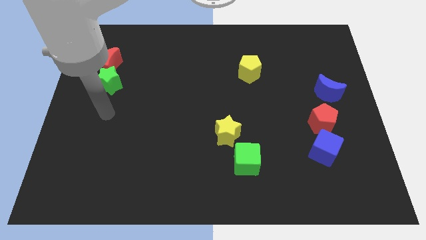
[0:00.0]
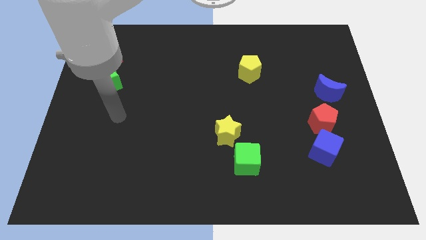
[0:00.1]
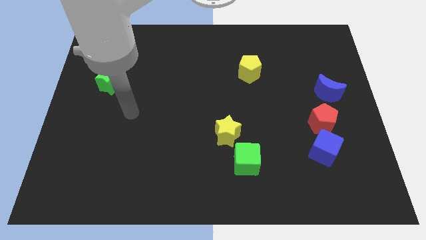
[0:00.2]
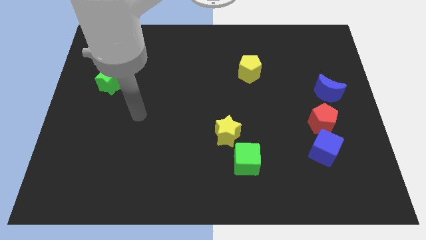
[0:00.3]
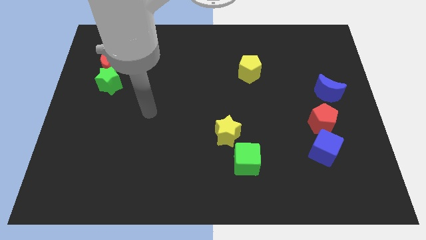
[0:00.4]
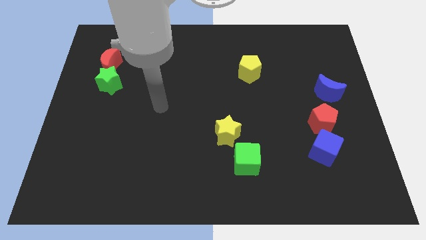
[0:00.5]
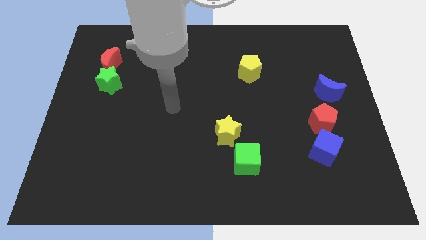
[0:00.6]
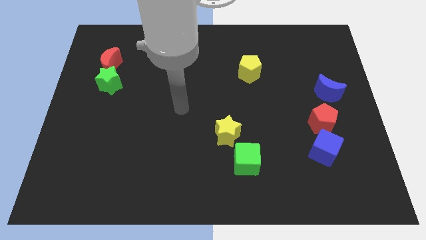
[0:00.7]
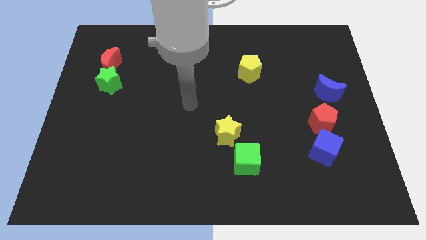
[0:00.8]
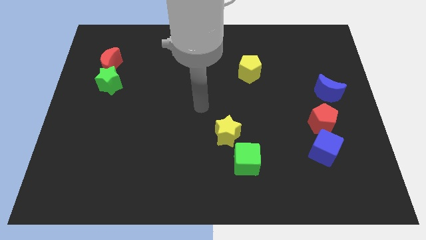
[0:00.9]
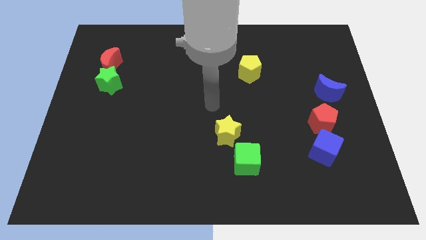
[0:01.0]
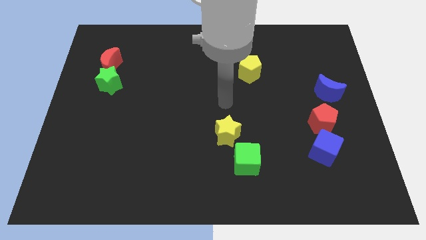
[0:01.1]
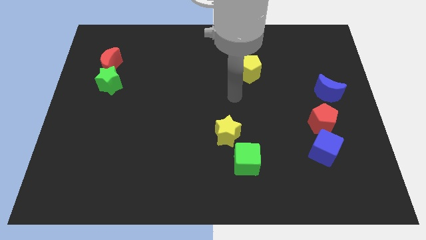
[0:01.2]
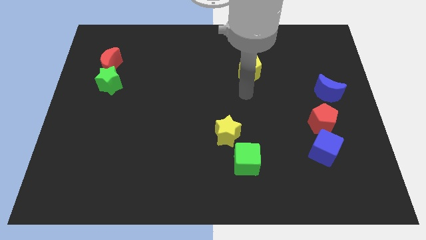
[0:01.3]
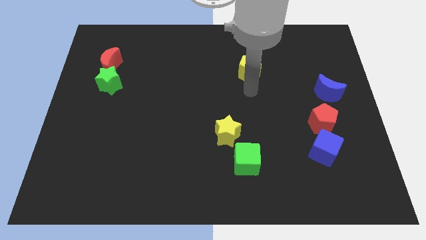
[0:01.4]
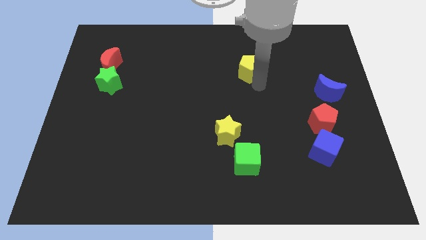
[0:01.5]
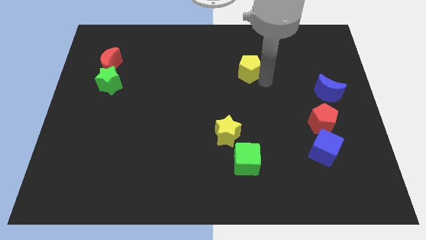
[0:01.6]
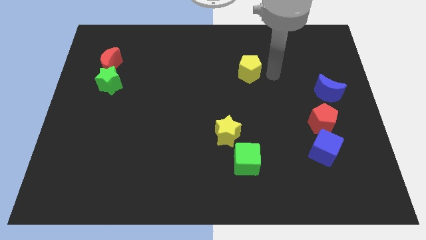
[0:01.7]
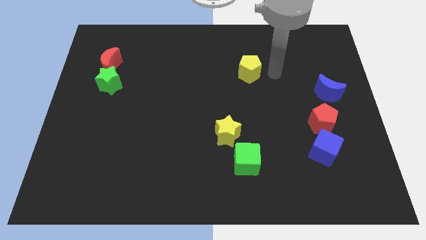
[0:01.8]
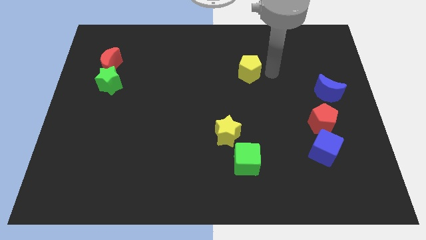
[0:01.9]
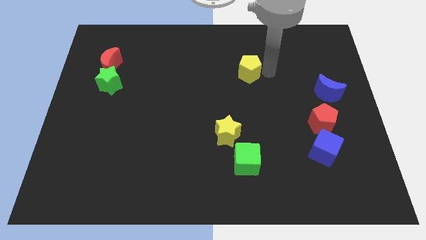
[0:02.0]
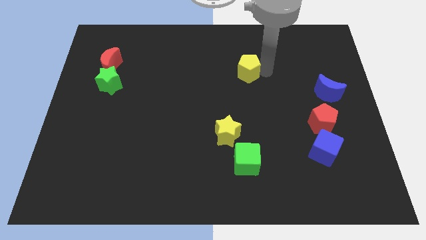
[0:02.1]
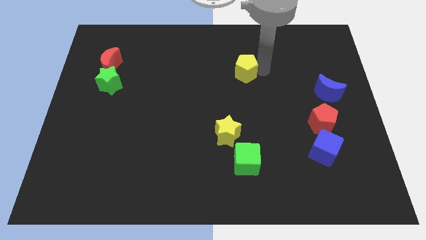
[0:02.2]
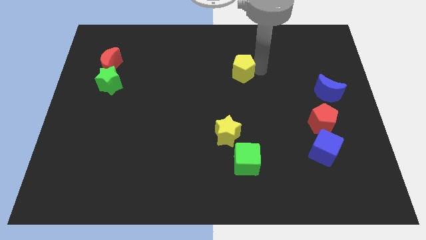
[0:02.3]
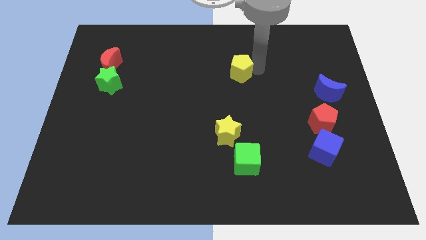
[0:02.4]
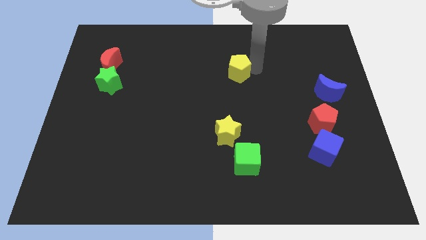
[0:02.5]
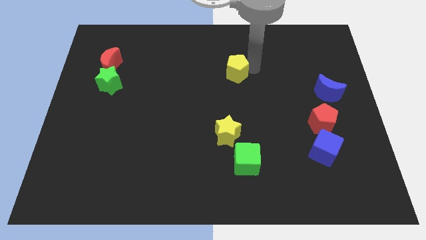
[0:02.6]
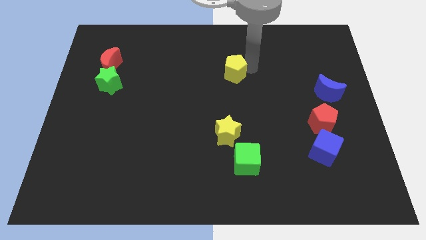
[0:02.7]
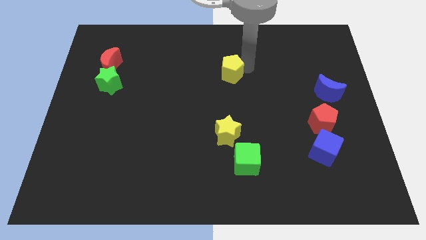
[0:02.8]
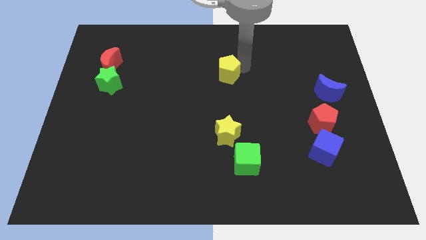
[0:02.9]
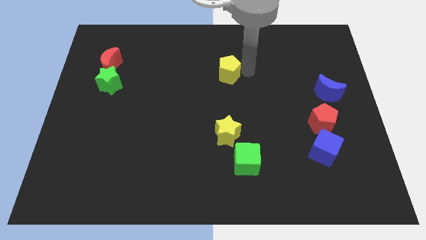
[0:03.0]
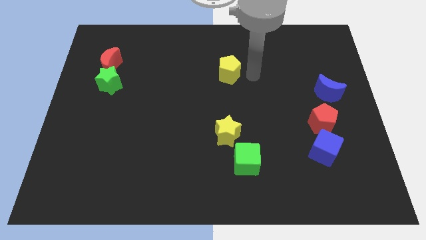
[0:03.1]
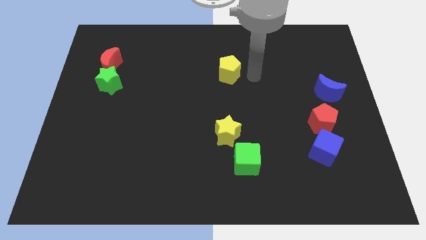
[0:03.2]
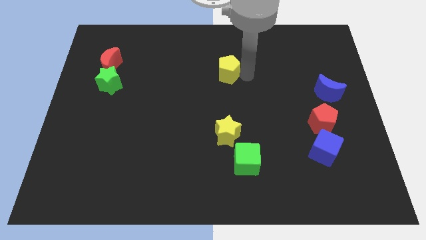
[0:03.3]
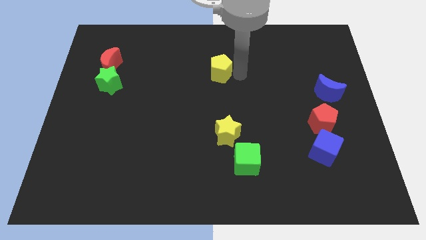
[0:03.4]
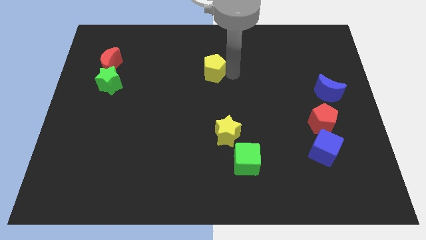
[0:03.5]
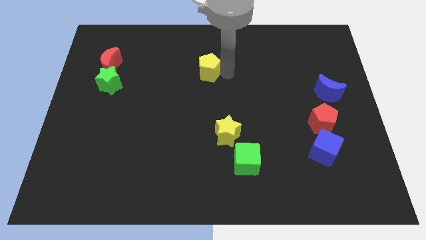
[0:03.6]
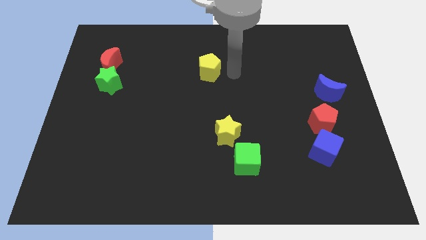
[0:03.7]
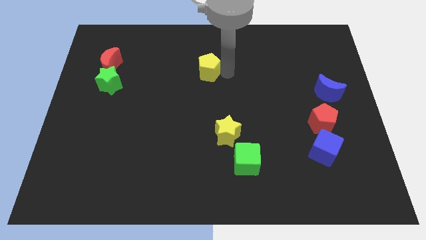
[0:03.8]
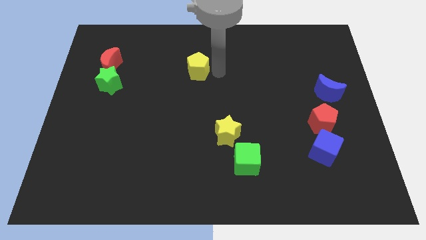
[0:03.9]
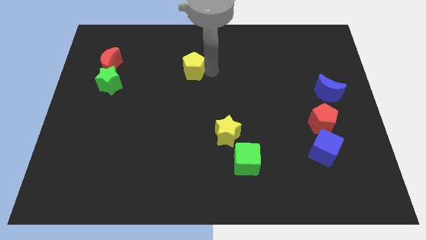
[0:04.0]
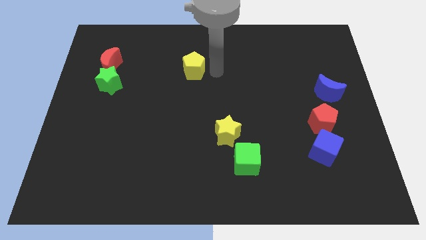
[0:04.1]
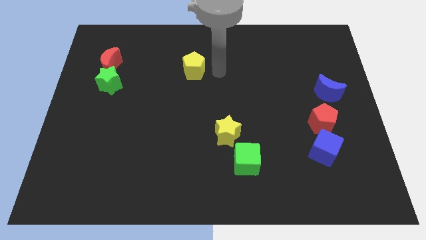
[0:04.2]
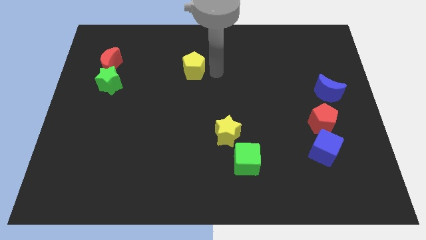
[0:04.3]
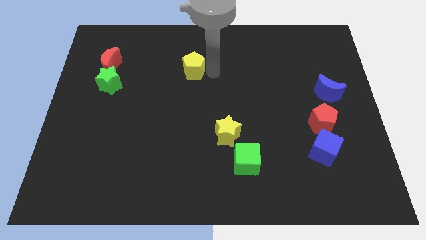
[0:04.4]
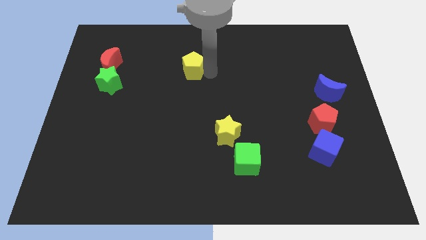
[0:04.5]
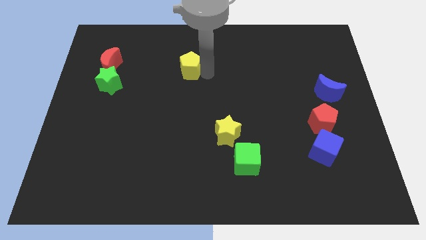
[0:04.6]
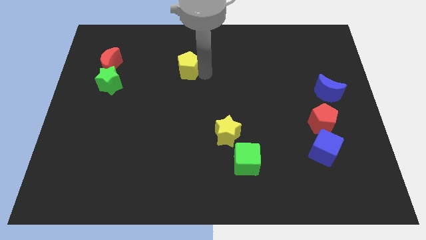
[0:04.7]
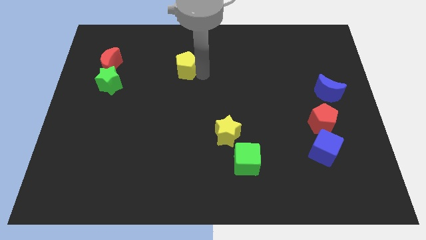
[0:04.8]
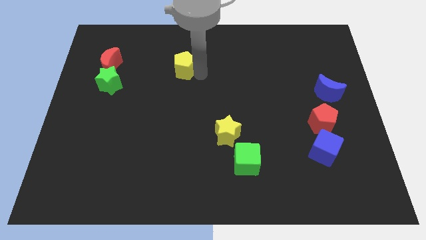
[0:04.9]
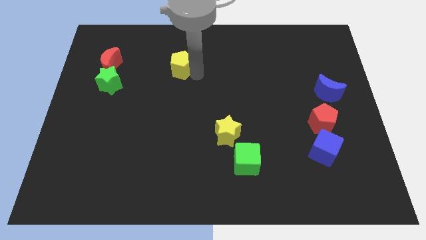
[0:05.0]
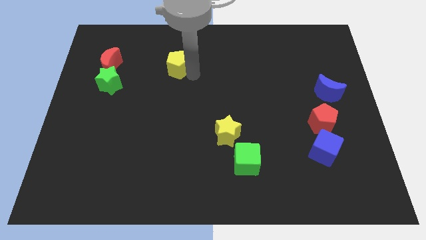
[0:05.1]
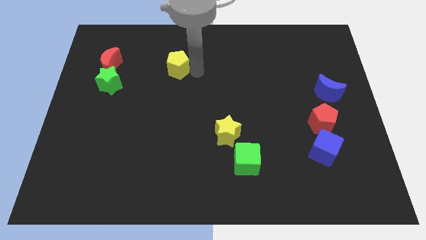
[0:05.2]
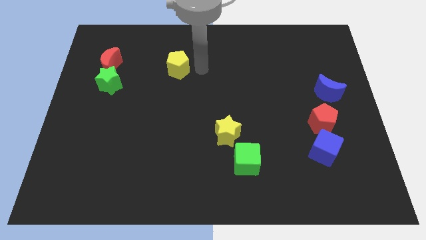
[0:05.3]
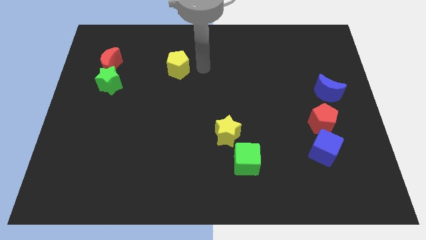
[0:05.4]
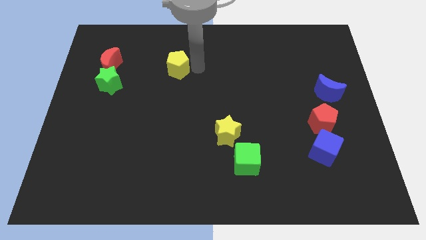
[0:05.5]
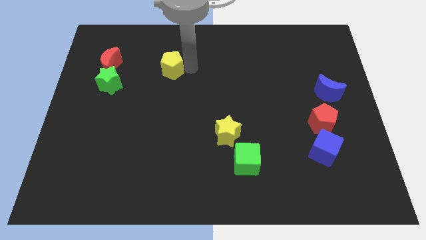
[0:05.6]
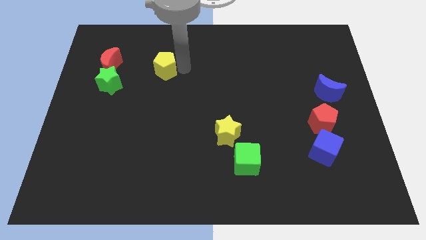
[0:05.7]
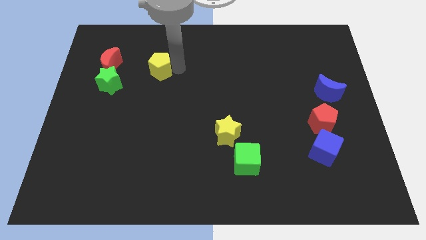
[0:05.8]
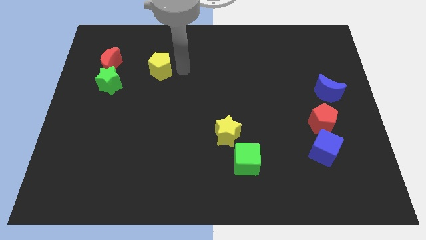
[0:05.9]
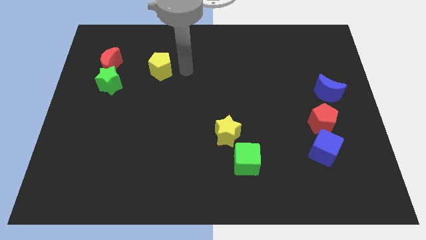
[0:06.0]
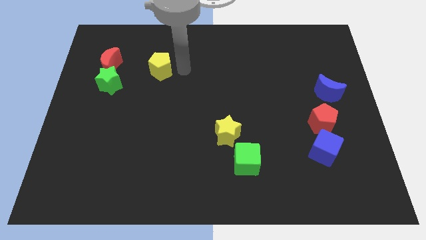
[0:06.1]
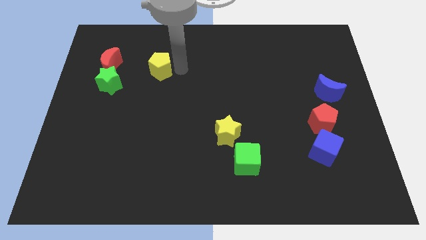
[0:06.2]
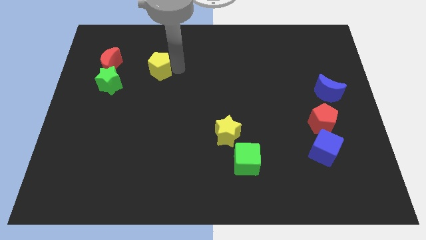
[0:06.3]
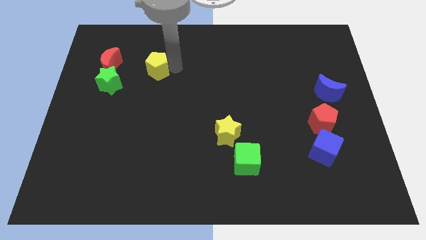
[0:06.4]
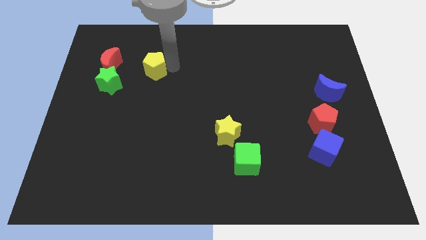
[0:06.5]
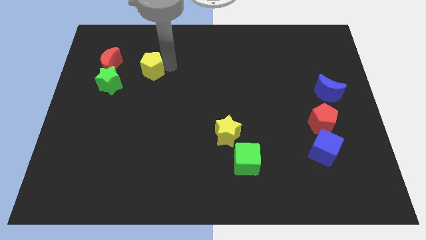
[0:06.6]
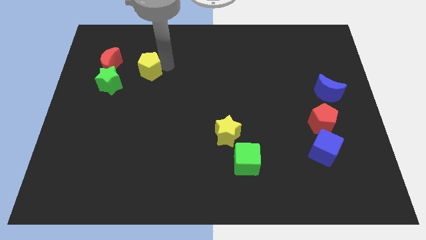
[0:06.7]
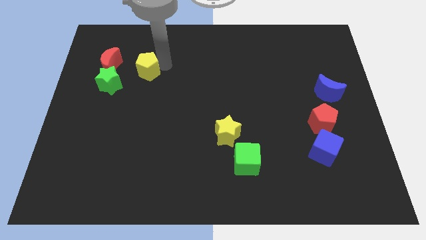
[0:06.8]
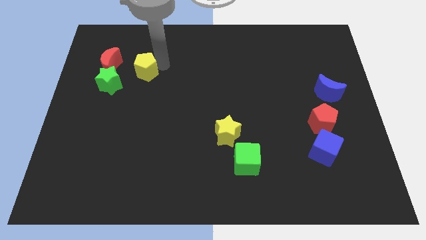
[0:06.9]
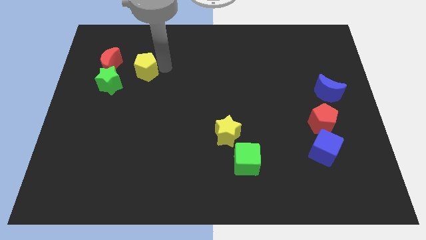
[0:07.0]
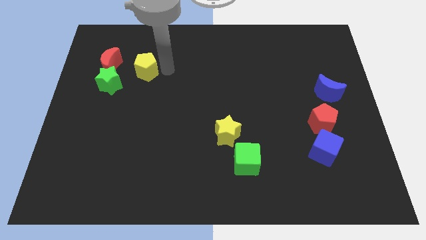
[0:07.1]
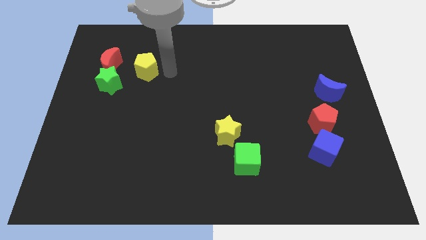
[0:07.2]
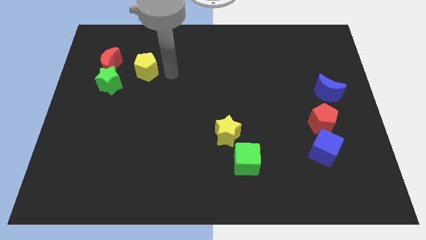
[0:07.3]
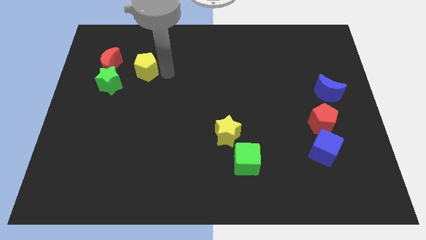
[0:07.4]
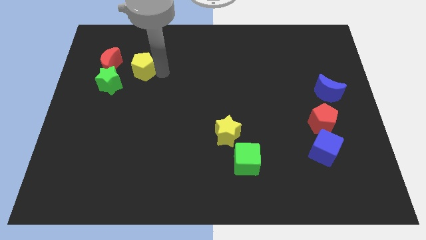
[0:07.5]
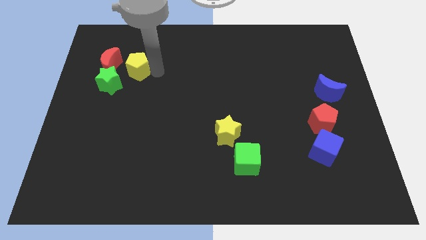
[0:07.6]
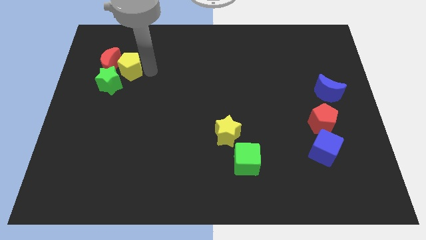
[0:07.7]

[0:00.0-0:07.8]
move the yellow pentagon next to the red moon
